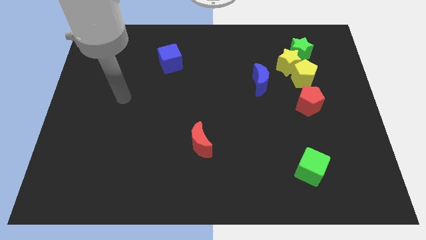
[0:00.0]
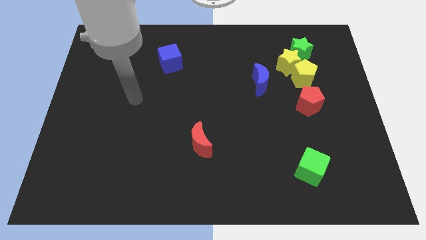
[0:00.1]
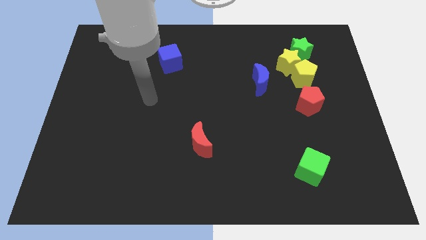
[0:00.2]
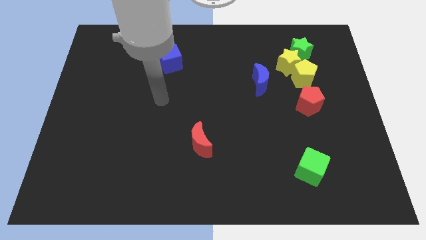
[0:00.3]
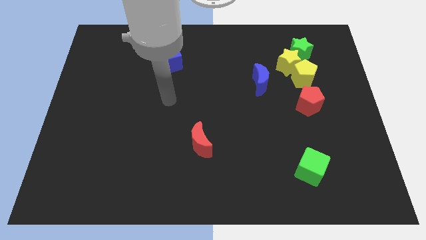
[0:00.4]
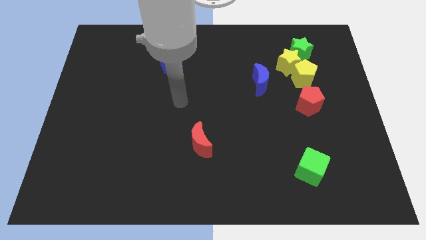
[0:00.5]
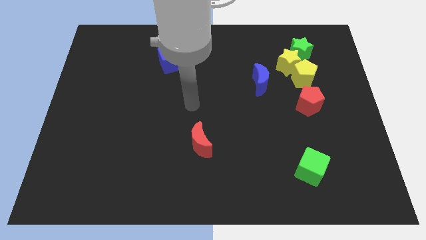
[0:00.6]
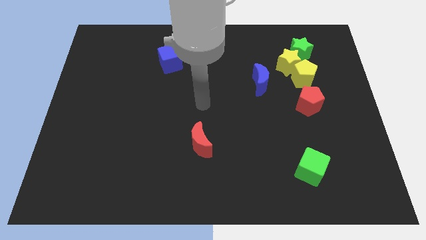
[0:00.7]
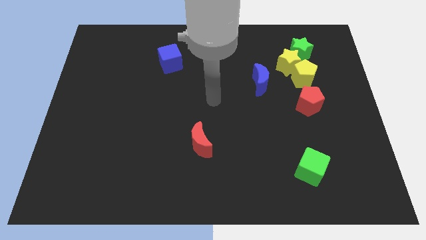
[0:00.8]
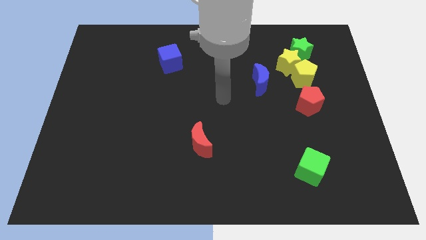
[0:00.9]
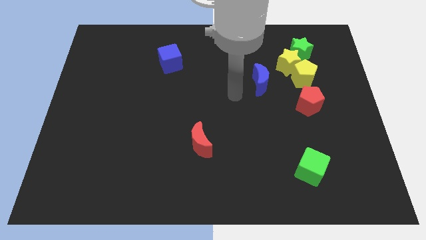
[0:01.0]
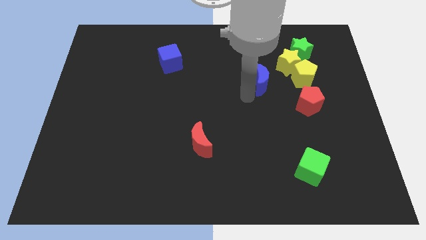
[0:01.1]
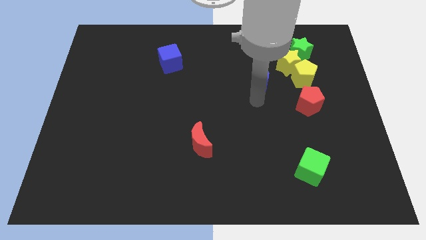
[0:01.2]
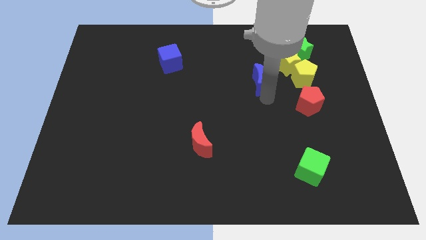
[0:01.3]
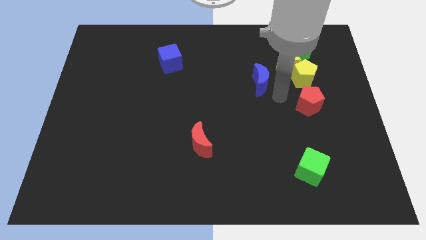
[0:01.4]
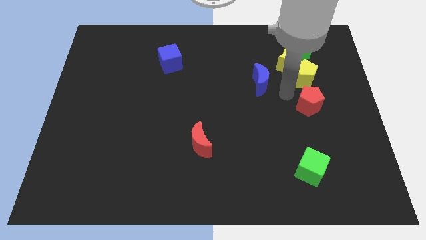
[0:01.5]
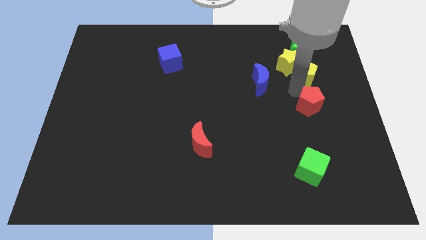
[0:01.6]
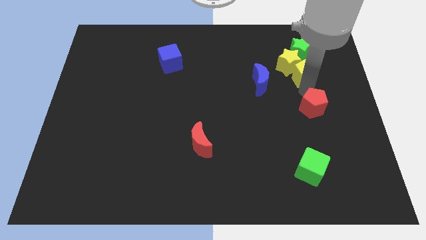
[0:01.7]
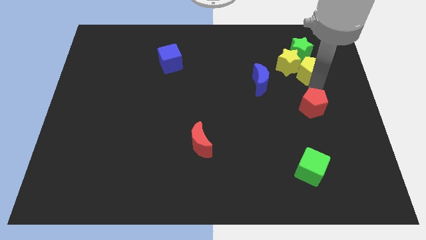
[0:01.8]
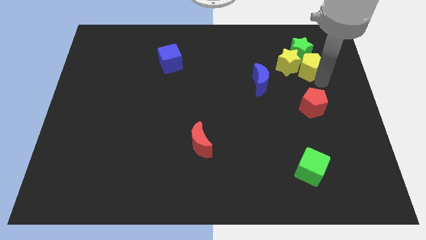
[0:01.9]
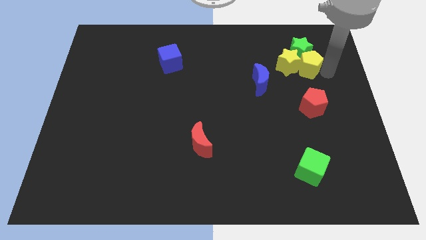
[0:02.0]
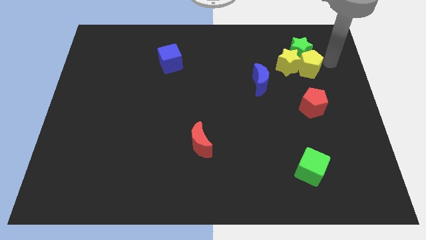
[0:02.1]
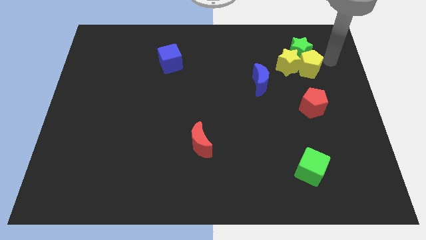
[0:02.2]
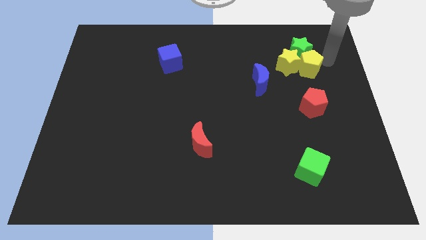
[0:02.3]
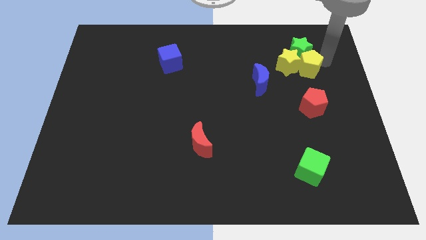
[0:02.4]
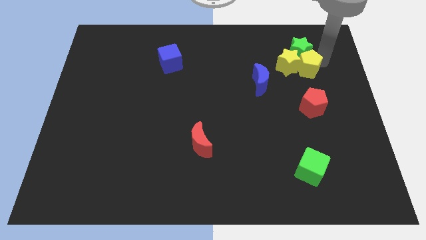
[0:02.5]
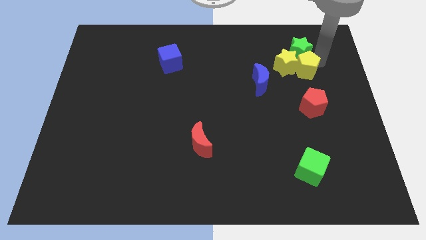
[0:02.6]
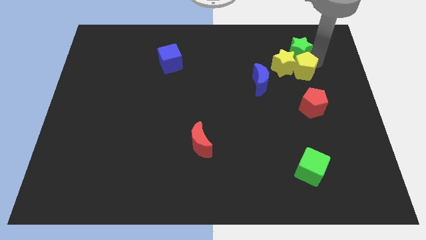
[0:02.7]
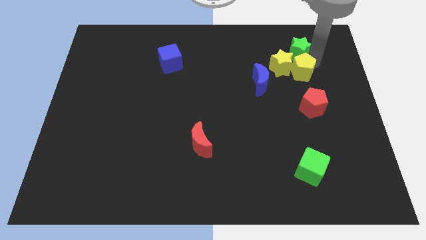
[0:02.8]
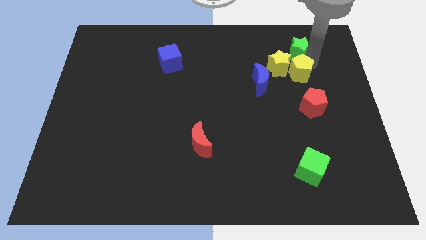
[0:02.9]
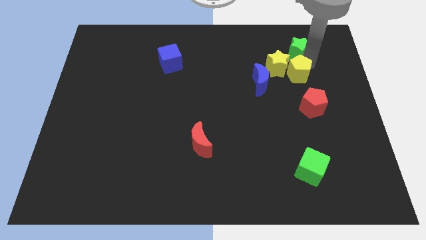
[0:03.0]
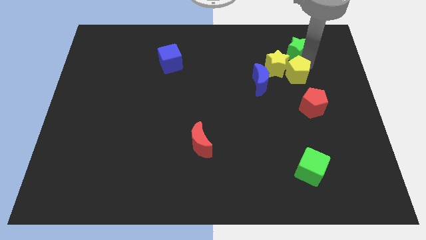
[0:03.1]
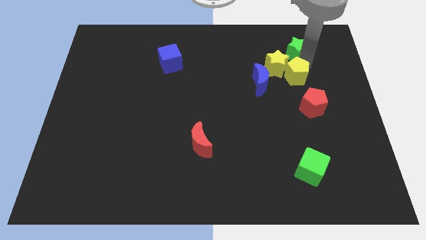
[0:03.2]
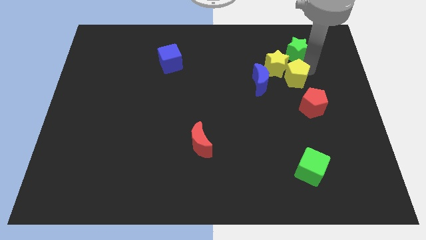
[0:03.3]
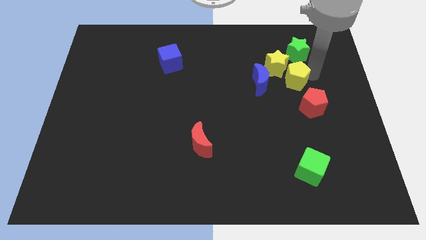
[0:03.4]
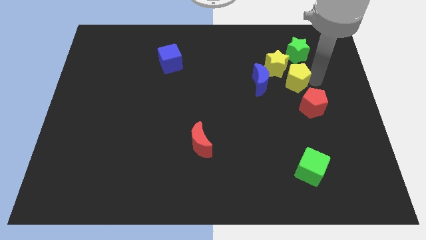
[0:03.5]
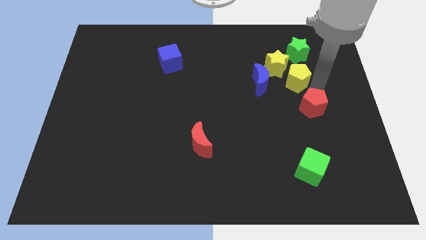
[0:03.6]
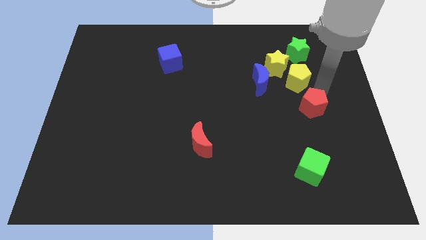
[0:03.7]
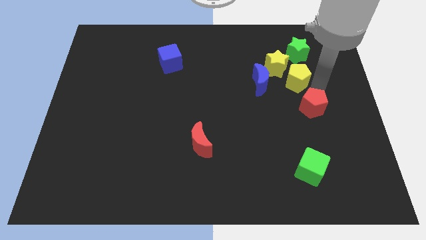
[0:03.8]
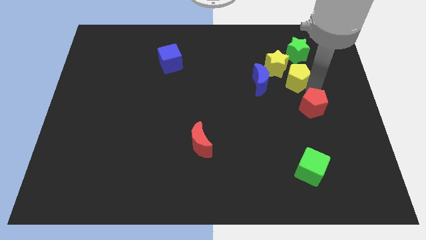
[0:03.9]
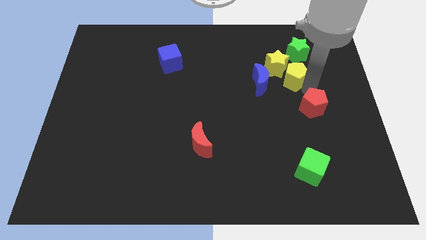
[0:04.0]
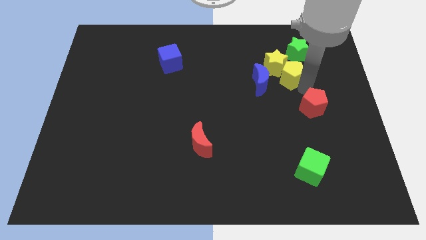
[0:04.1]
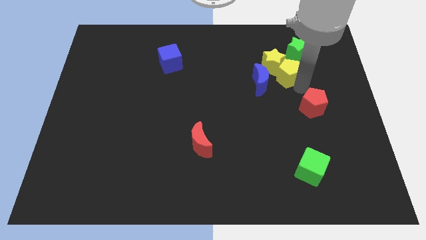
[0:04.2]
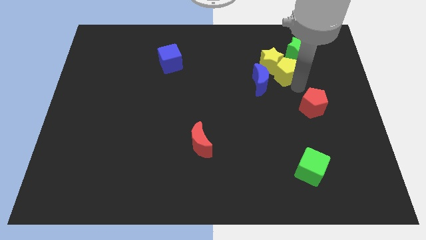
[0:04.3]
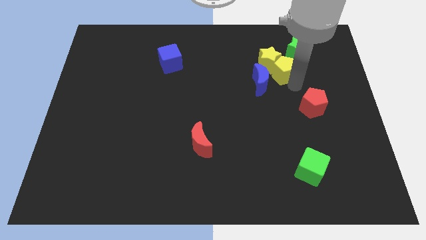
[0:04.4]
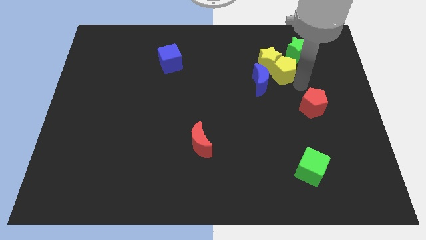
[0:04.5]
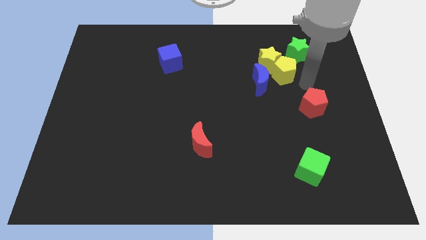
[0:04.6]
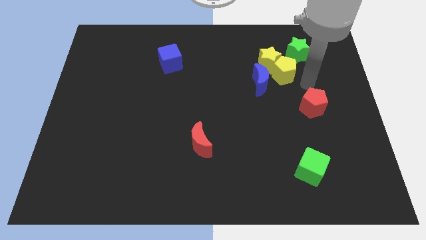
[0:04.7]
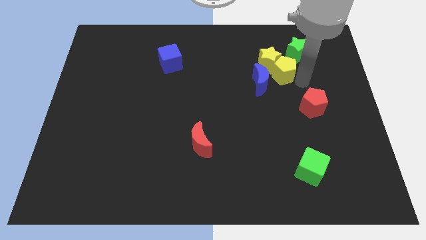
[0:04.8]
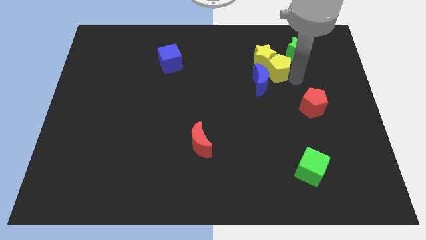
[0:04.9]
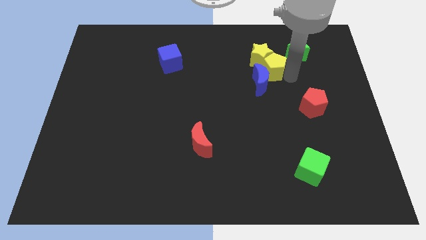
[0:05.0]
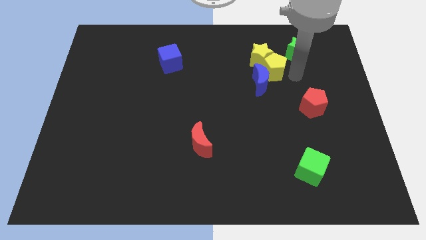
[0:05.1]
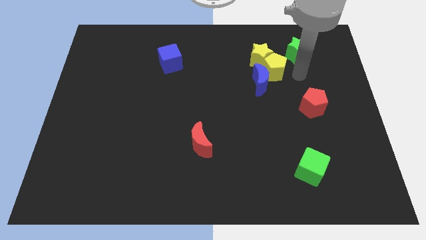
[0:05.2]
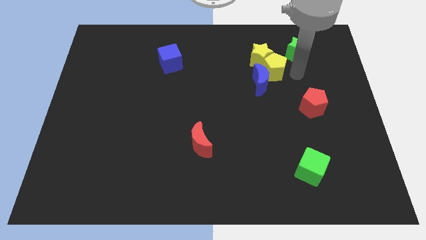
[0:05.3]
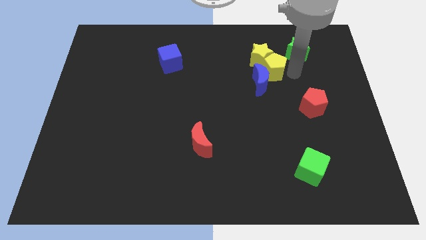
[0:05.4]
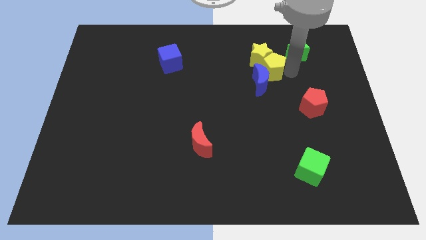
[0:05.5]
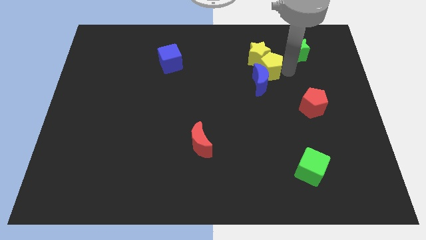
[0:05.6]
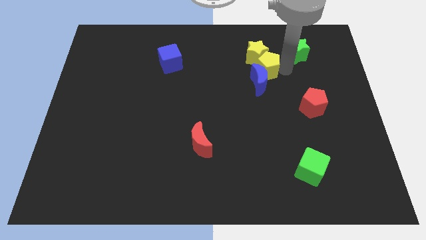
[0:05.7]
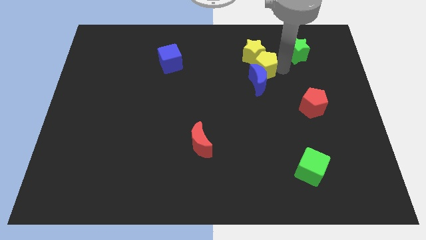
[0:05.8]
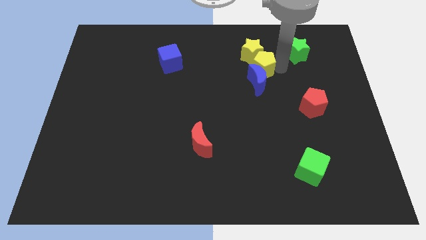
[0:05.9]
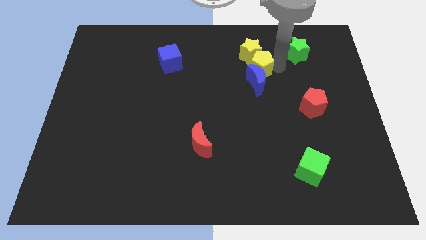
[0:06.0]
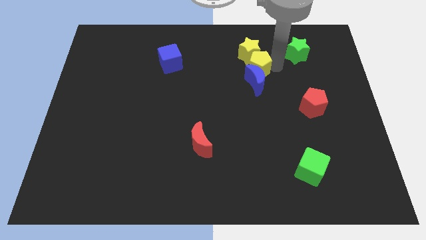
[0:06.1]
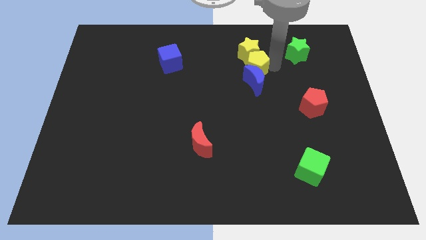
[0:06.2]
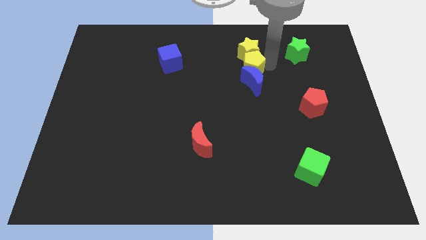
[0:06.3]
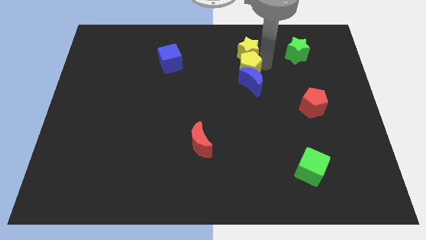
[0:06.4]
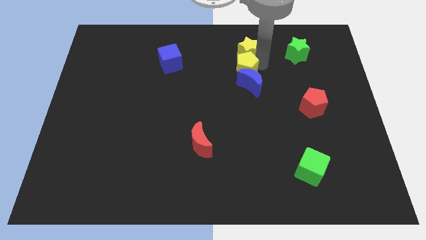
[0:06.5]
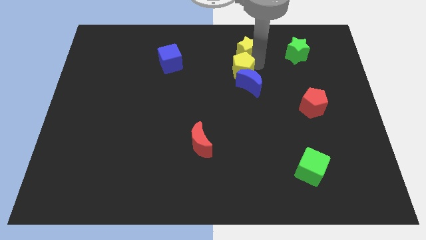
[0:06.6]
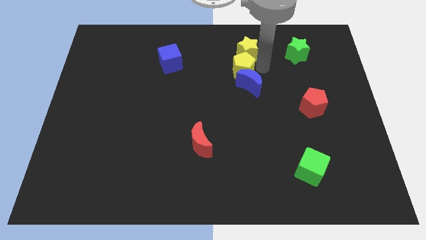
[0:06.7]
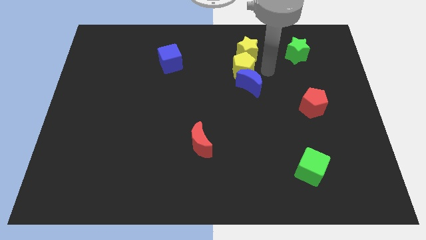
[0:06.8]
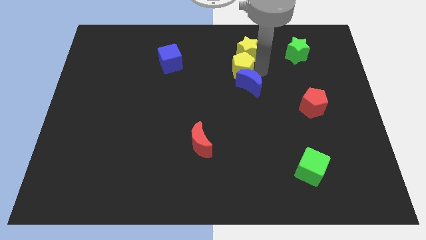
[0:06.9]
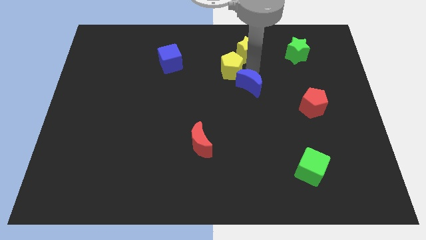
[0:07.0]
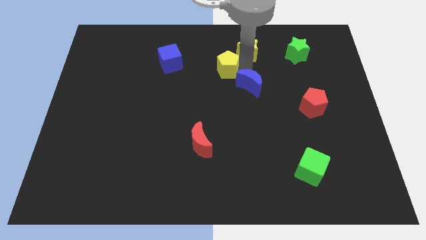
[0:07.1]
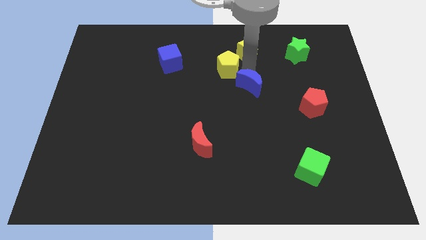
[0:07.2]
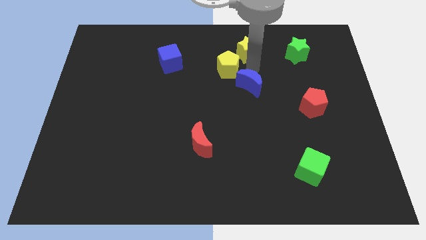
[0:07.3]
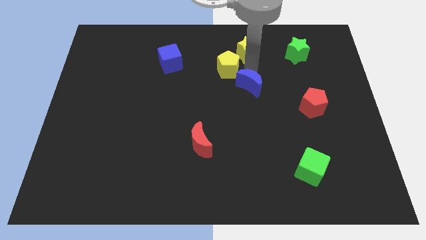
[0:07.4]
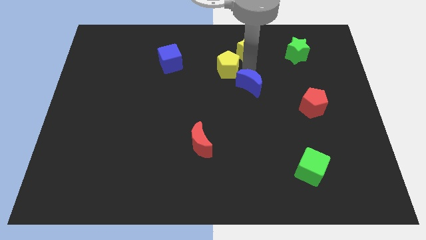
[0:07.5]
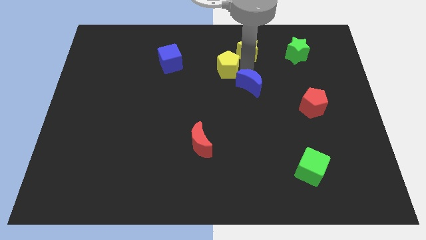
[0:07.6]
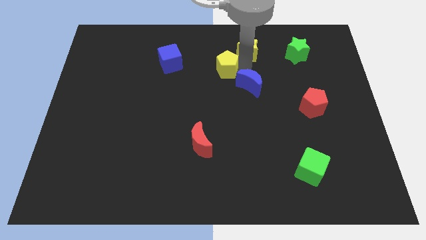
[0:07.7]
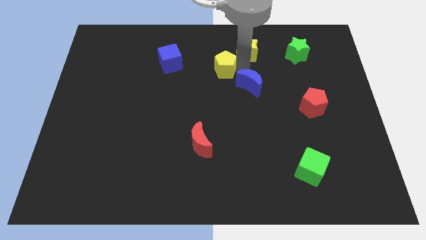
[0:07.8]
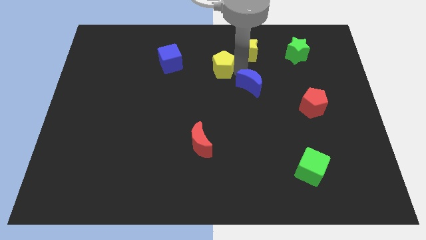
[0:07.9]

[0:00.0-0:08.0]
slide the yellow pentagon to the left

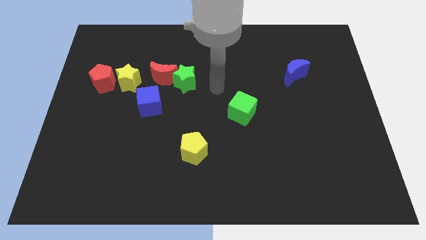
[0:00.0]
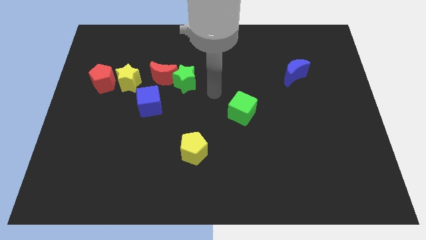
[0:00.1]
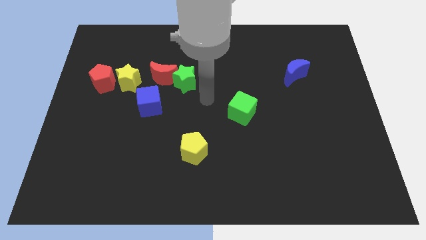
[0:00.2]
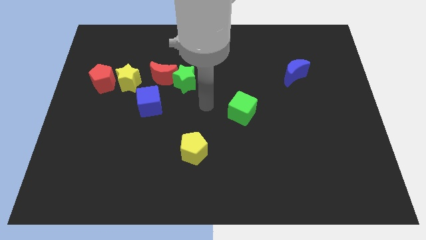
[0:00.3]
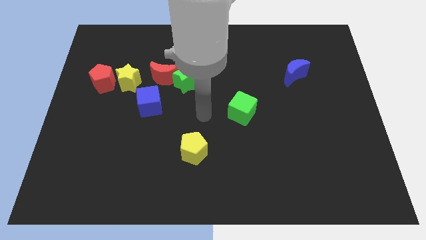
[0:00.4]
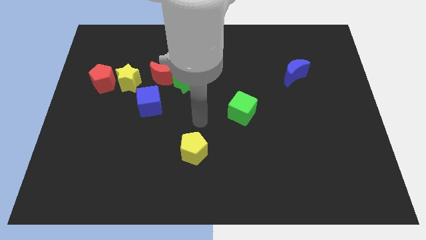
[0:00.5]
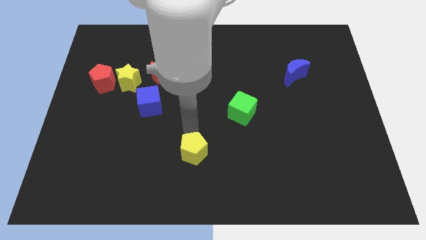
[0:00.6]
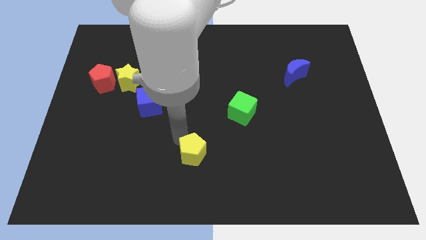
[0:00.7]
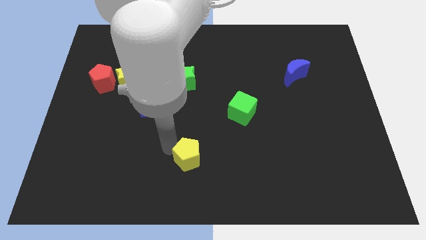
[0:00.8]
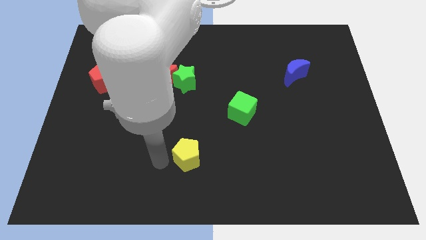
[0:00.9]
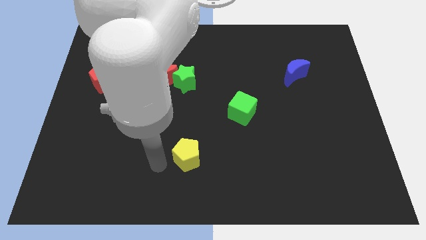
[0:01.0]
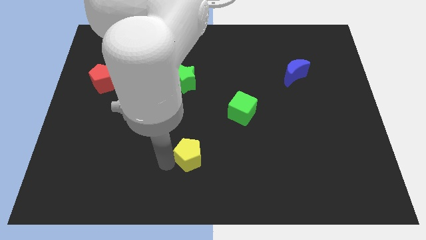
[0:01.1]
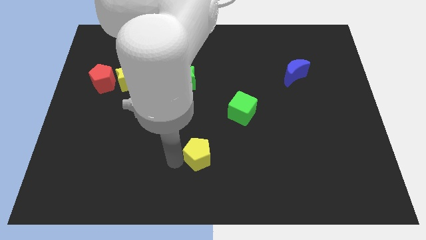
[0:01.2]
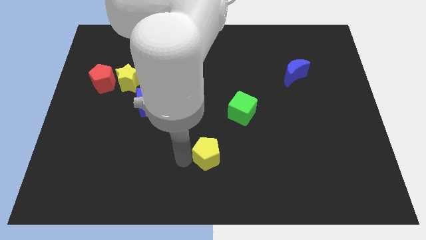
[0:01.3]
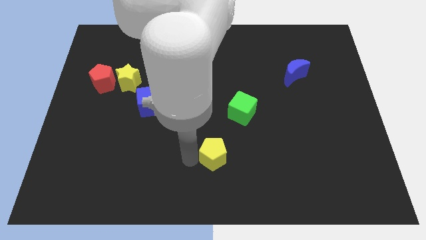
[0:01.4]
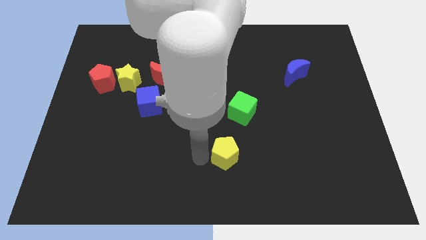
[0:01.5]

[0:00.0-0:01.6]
slide the yellow pentagon a bit to the right
